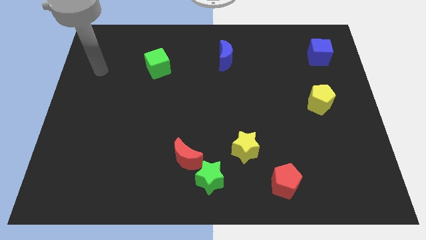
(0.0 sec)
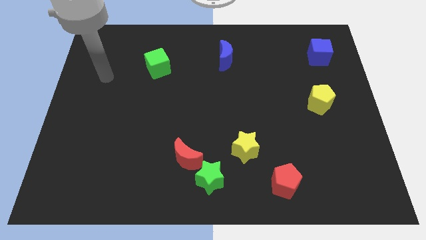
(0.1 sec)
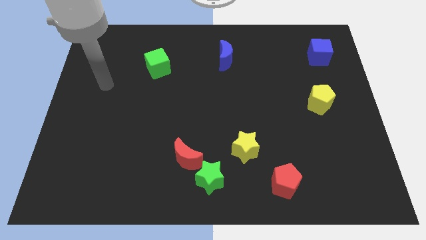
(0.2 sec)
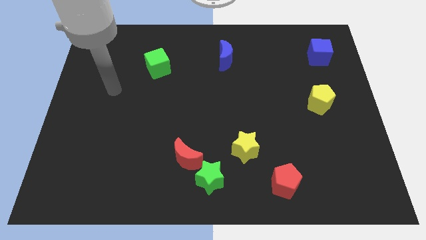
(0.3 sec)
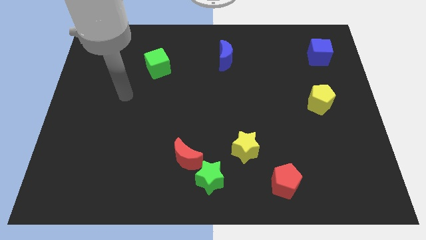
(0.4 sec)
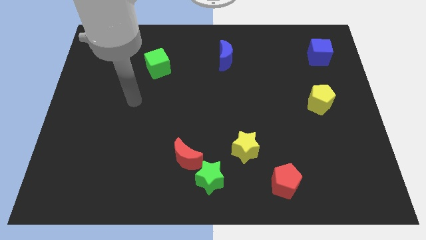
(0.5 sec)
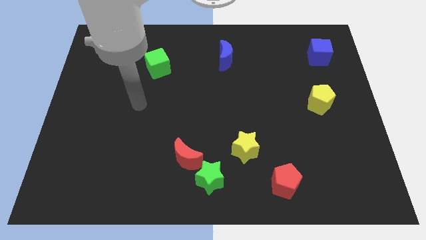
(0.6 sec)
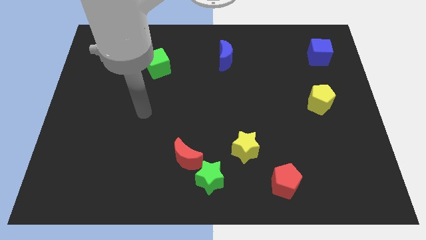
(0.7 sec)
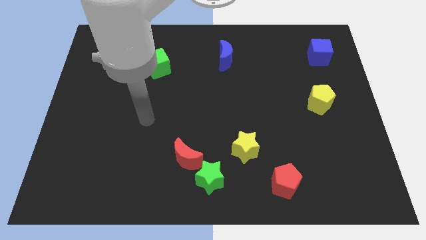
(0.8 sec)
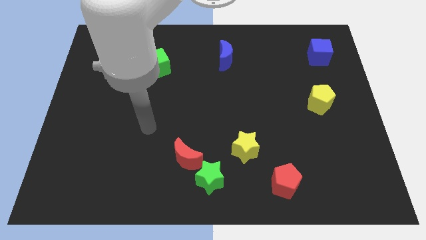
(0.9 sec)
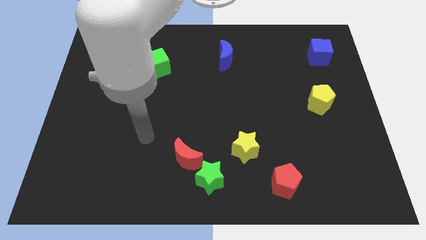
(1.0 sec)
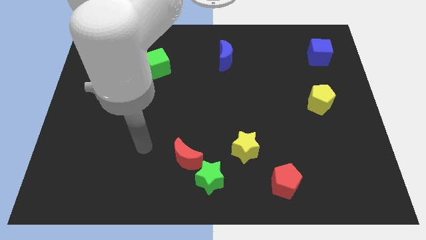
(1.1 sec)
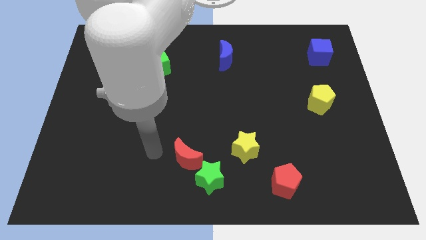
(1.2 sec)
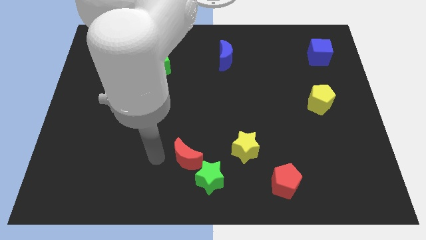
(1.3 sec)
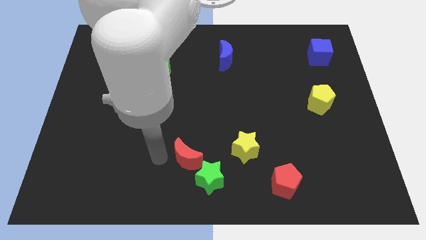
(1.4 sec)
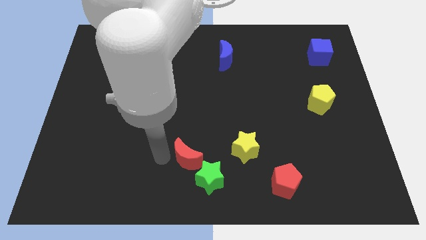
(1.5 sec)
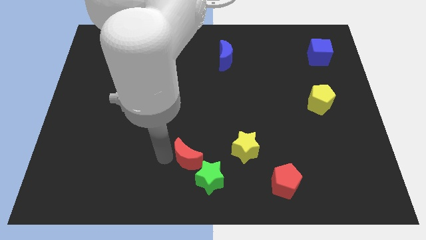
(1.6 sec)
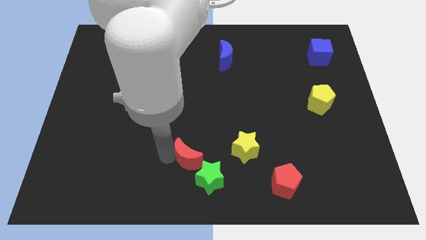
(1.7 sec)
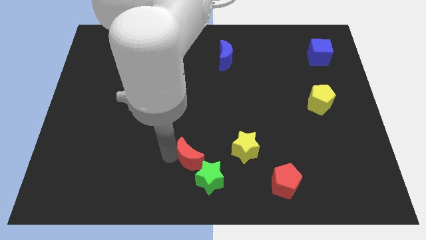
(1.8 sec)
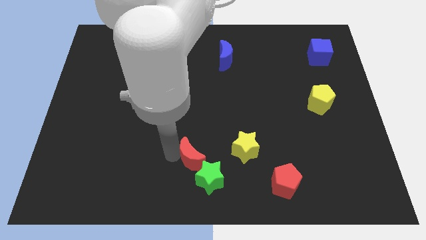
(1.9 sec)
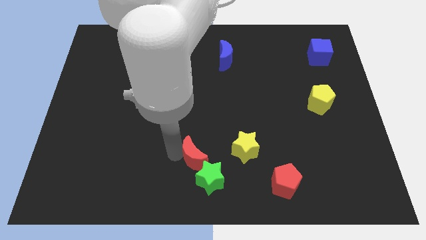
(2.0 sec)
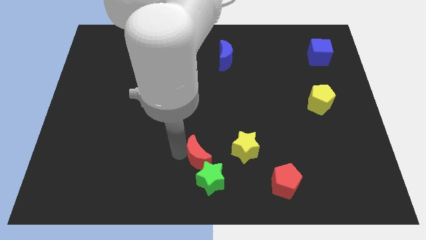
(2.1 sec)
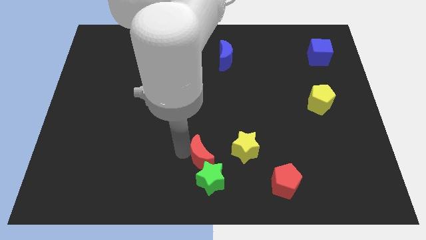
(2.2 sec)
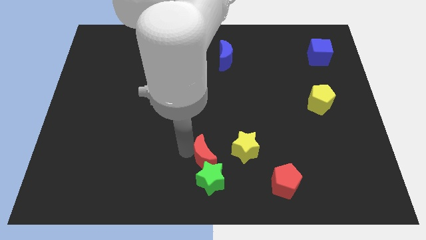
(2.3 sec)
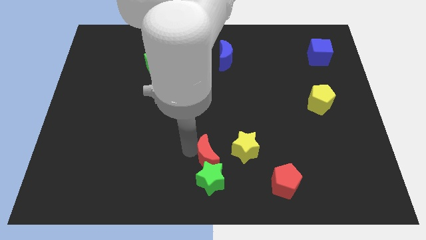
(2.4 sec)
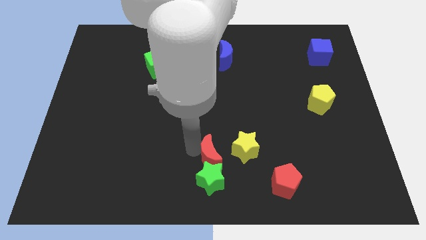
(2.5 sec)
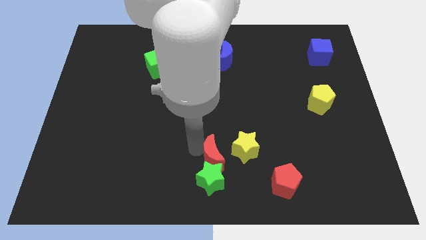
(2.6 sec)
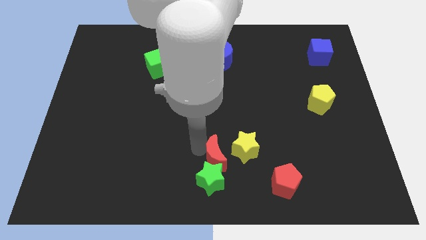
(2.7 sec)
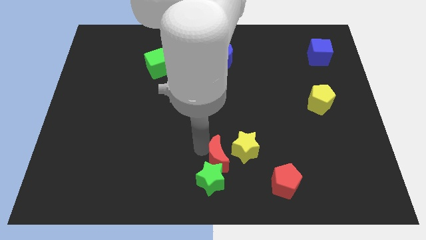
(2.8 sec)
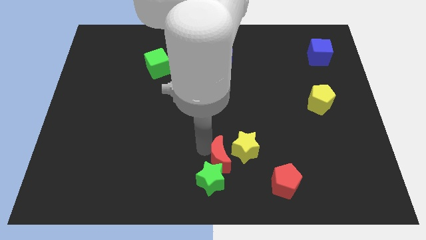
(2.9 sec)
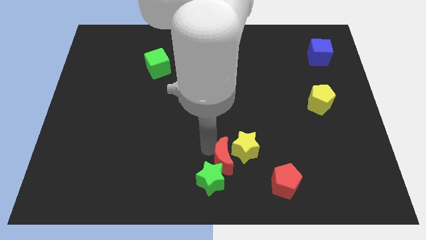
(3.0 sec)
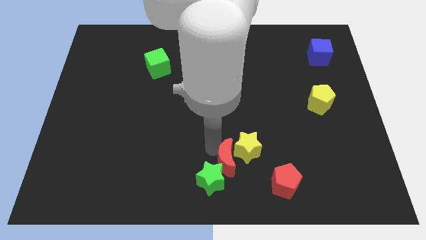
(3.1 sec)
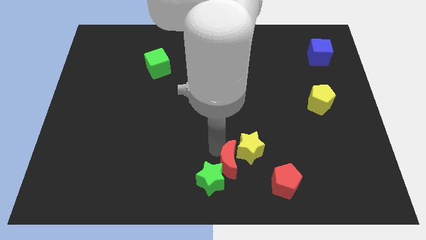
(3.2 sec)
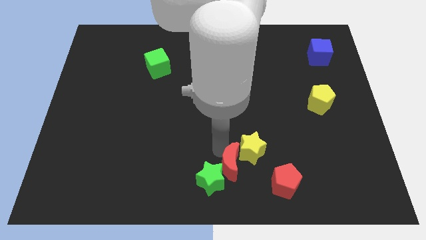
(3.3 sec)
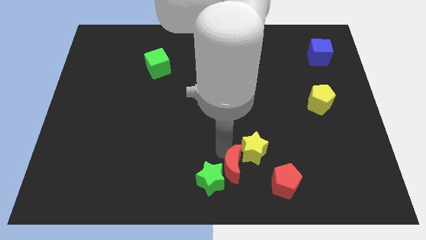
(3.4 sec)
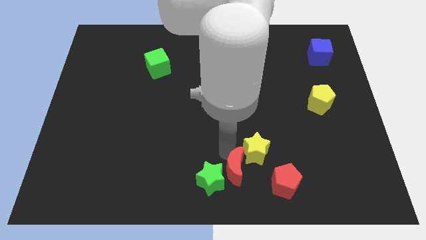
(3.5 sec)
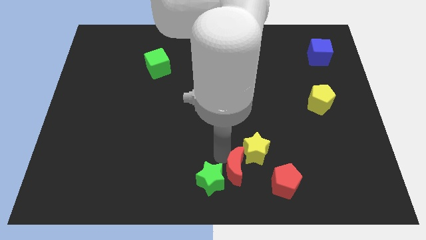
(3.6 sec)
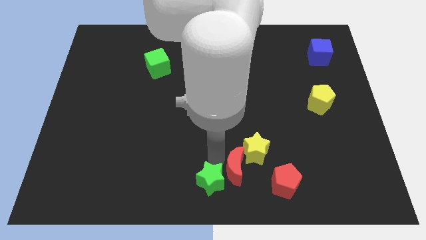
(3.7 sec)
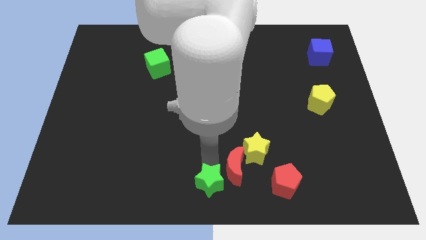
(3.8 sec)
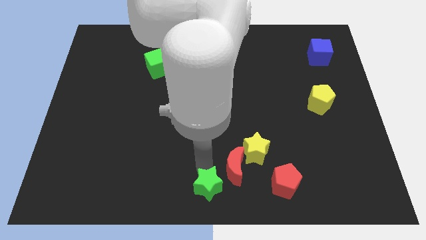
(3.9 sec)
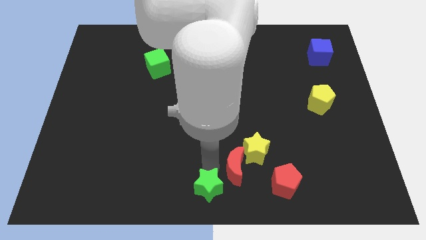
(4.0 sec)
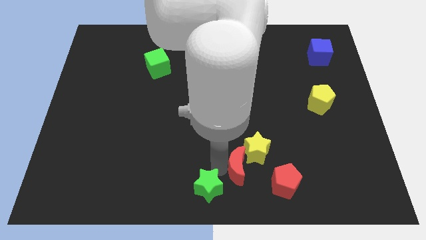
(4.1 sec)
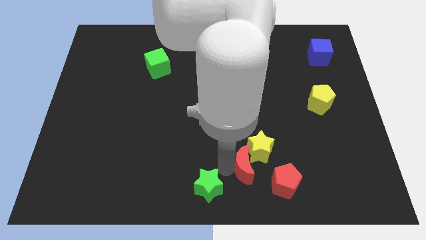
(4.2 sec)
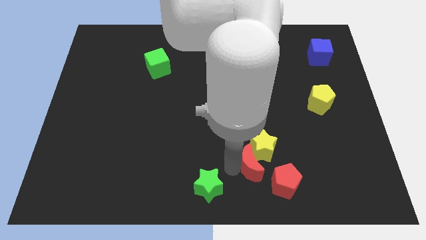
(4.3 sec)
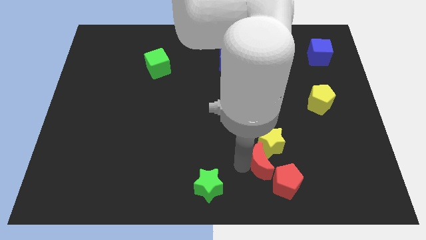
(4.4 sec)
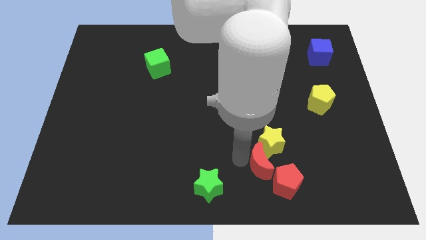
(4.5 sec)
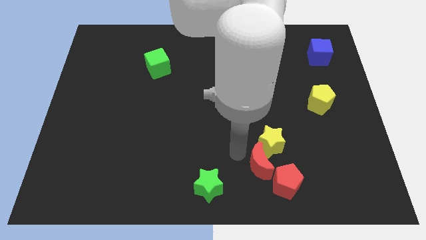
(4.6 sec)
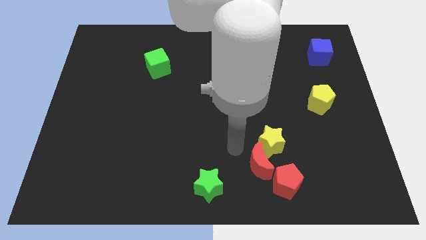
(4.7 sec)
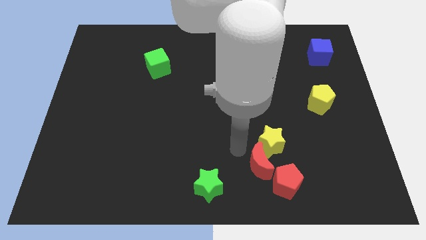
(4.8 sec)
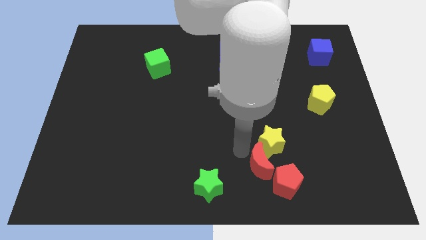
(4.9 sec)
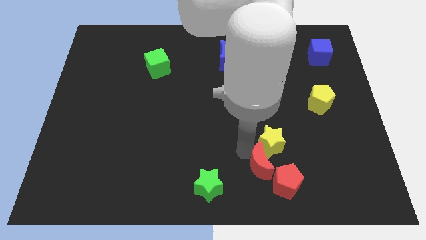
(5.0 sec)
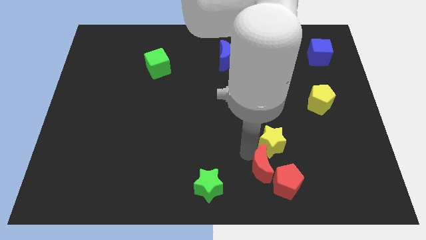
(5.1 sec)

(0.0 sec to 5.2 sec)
move the red moon close to the red pentagon

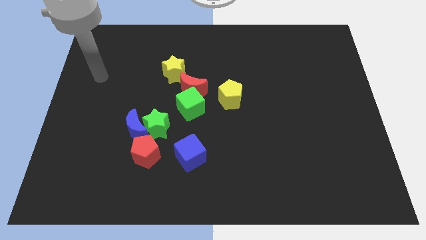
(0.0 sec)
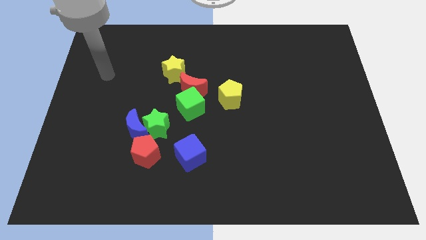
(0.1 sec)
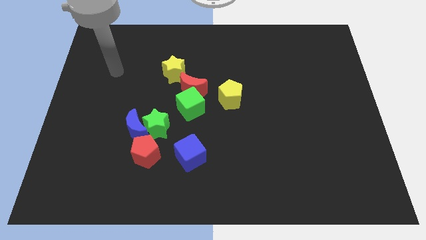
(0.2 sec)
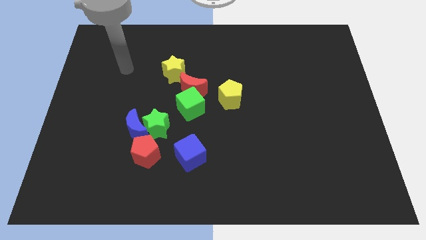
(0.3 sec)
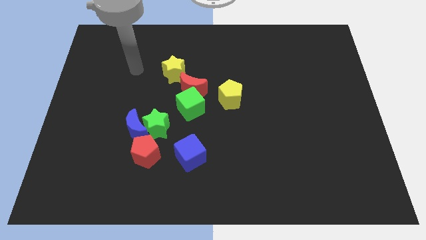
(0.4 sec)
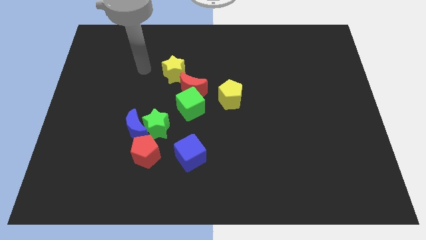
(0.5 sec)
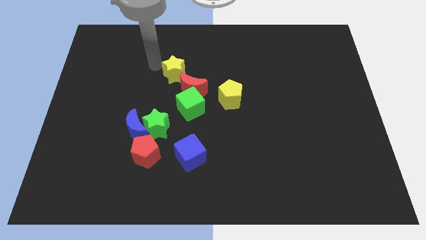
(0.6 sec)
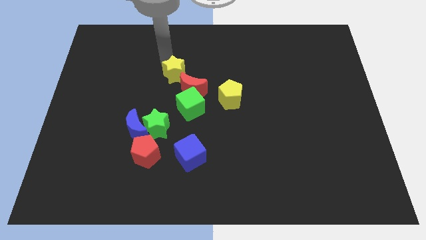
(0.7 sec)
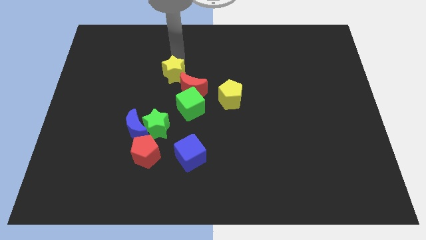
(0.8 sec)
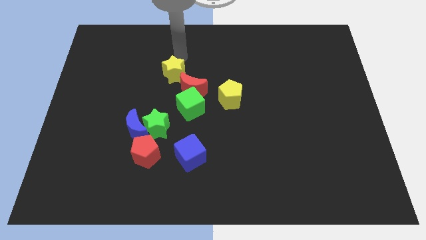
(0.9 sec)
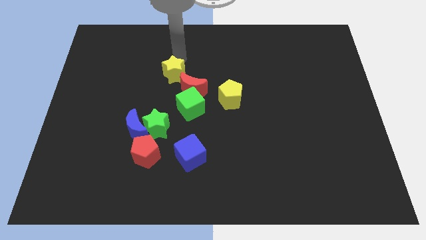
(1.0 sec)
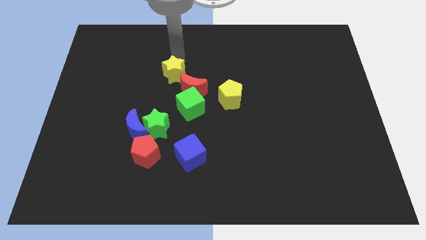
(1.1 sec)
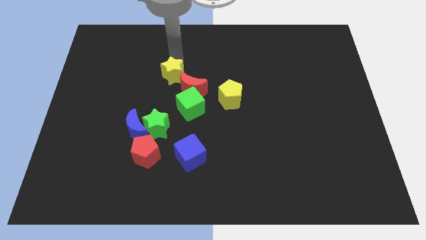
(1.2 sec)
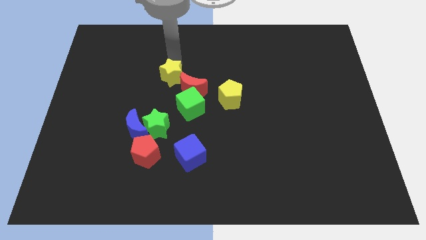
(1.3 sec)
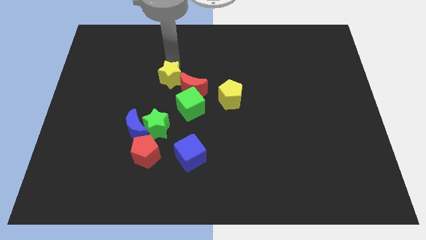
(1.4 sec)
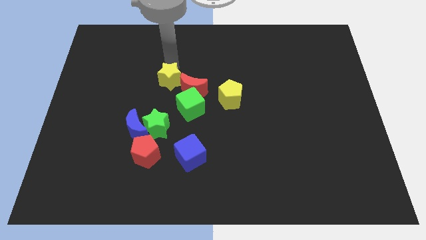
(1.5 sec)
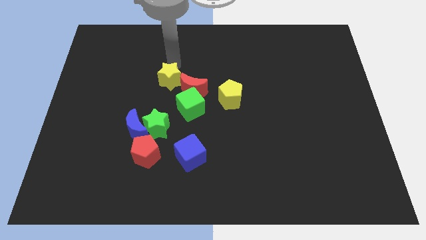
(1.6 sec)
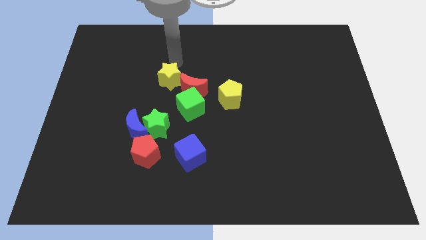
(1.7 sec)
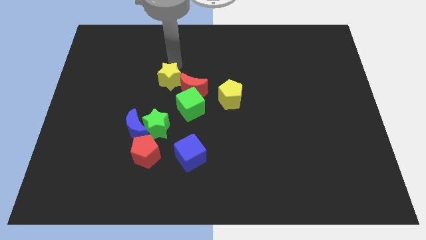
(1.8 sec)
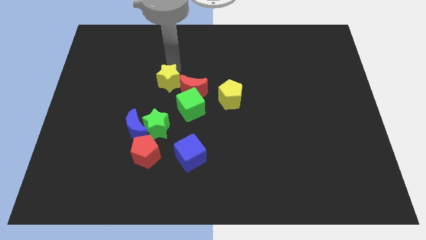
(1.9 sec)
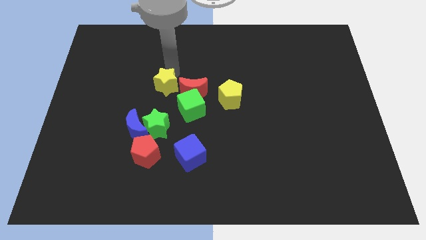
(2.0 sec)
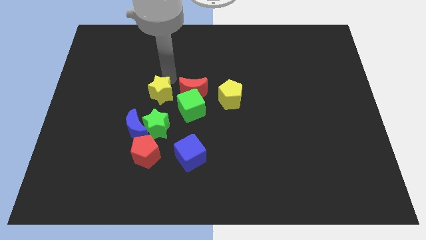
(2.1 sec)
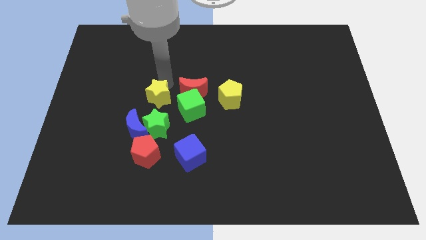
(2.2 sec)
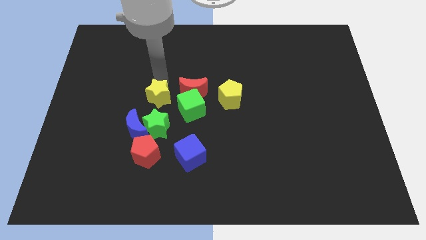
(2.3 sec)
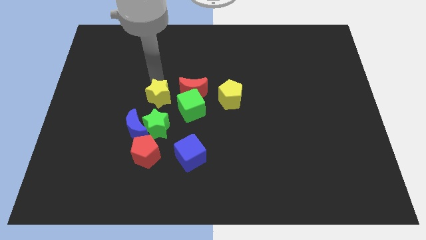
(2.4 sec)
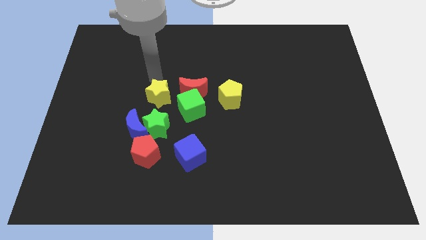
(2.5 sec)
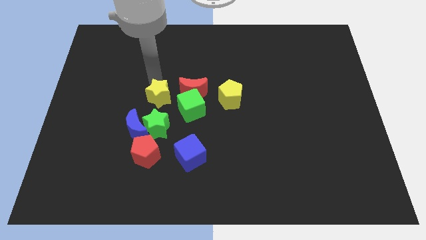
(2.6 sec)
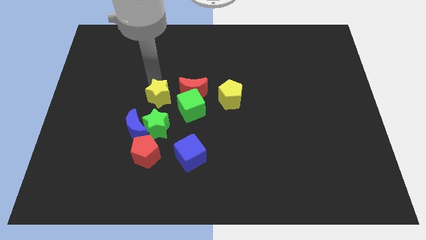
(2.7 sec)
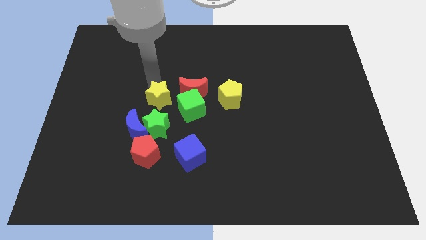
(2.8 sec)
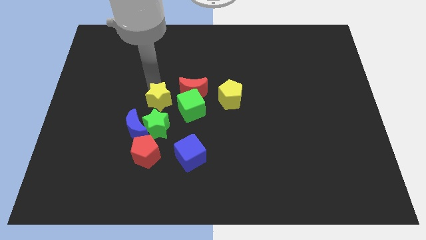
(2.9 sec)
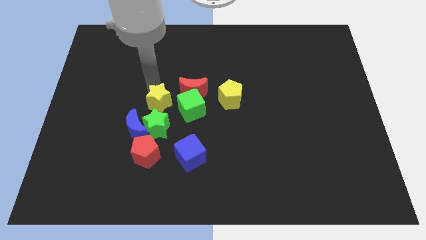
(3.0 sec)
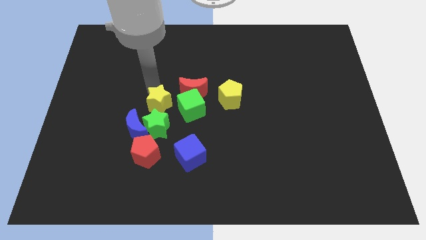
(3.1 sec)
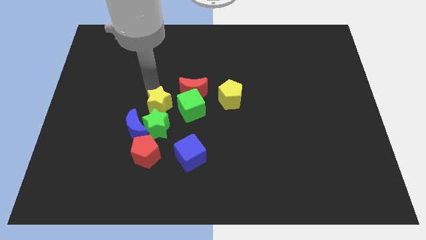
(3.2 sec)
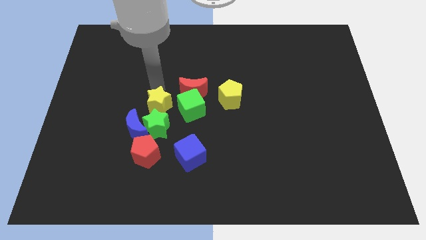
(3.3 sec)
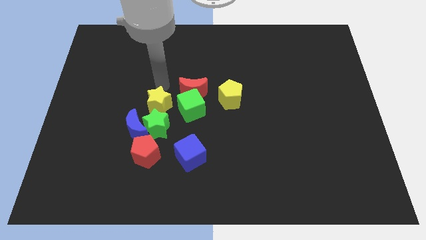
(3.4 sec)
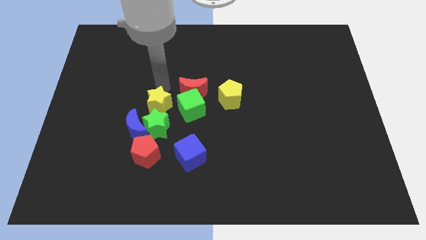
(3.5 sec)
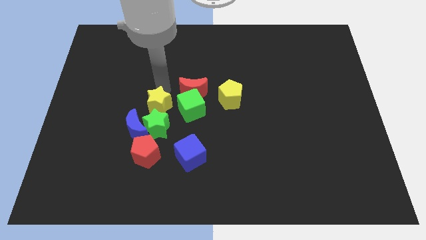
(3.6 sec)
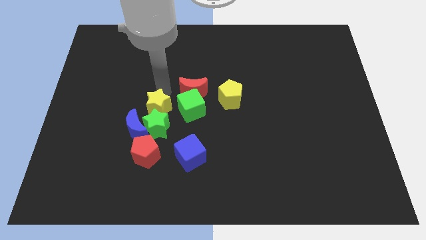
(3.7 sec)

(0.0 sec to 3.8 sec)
push the yellow star close to the green star
